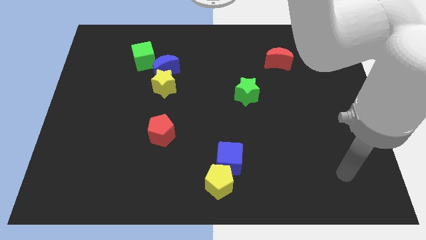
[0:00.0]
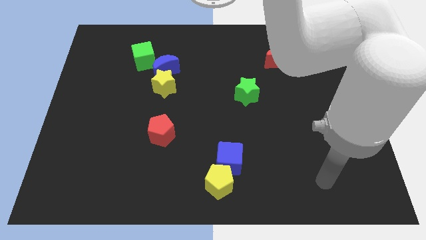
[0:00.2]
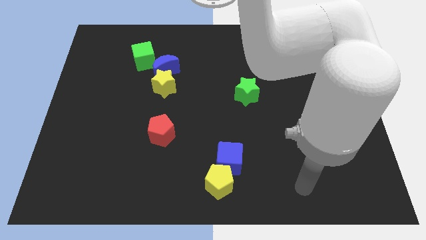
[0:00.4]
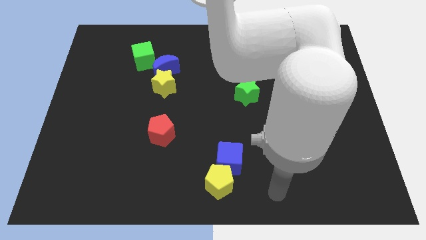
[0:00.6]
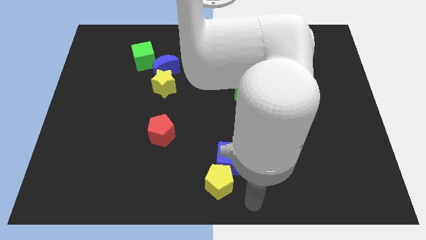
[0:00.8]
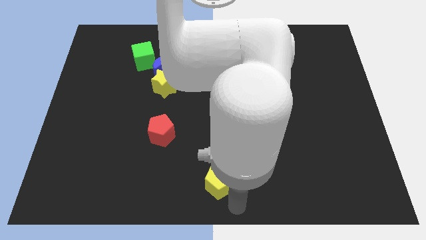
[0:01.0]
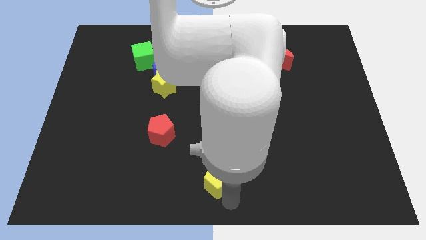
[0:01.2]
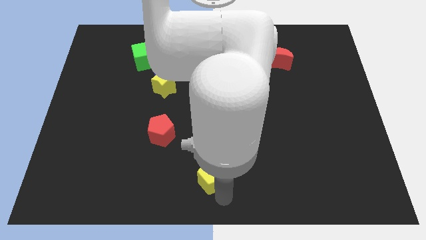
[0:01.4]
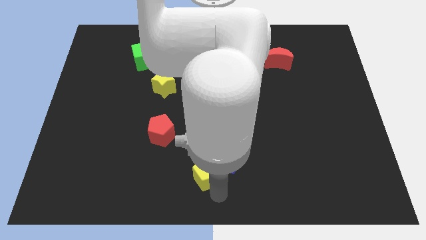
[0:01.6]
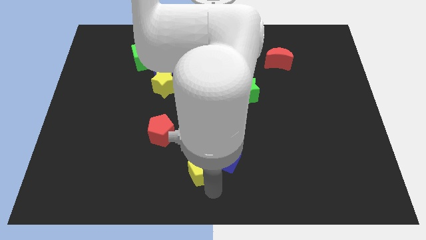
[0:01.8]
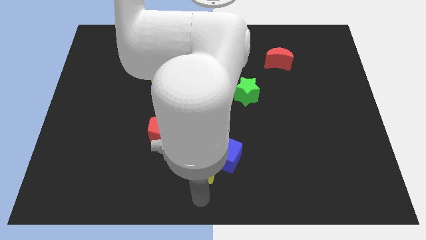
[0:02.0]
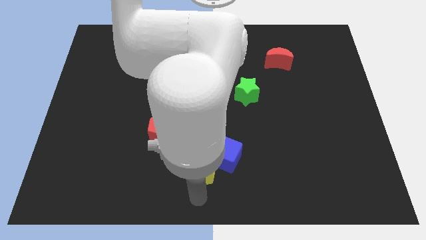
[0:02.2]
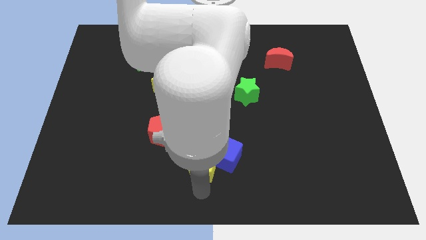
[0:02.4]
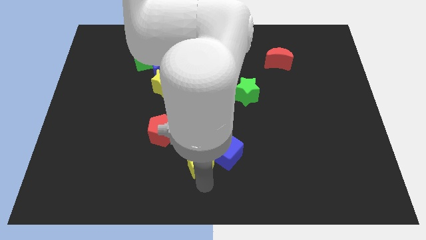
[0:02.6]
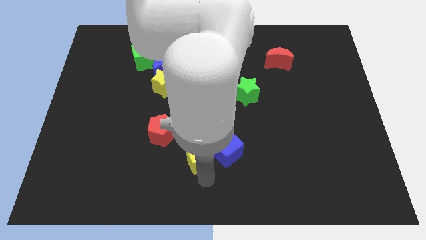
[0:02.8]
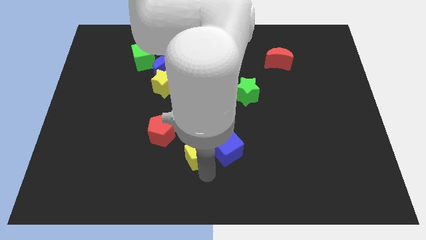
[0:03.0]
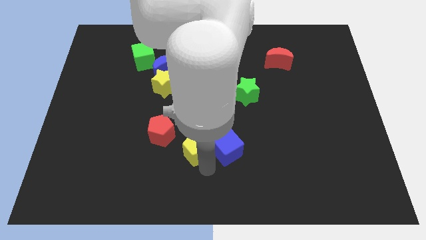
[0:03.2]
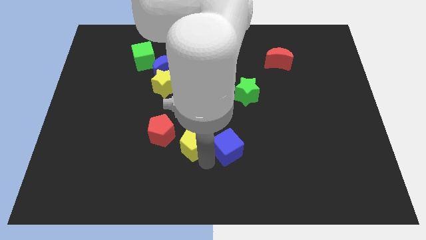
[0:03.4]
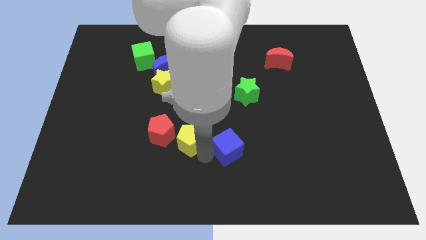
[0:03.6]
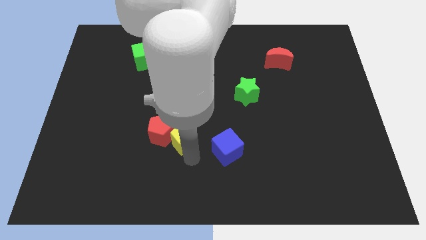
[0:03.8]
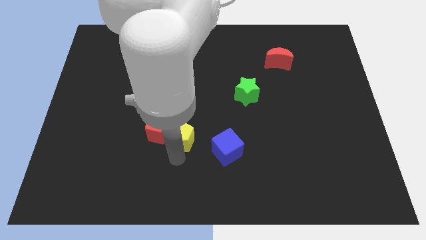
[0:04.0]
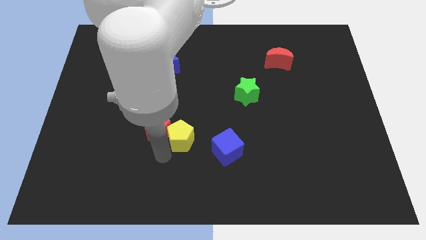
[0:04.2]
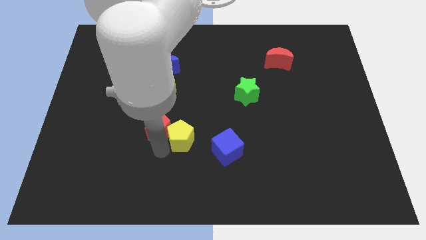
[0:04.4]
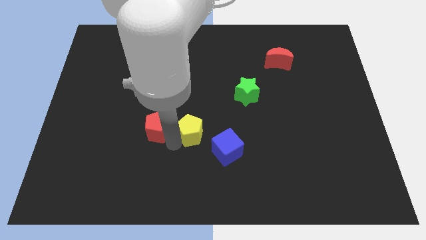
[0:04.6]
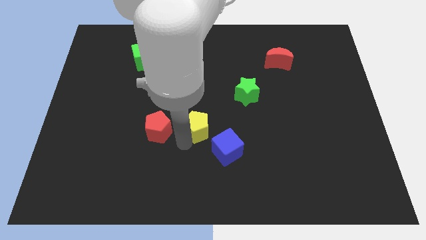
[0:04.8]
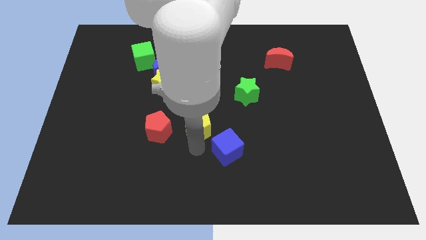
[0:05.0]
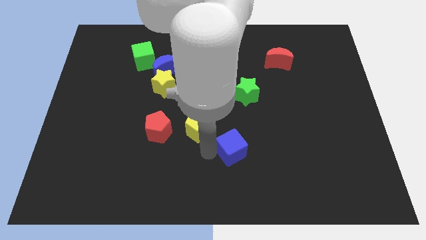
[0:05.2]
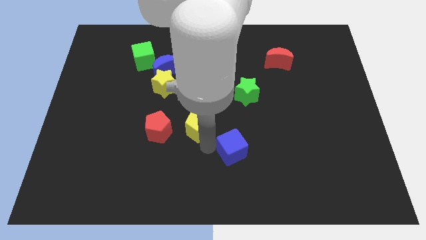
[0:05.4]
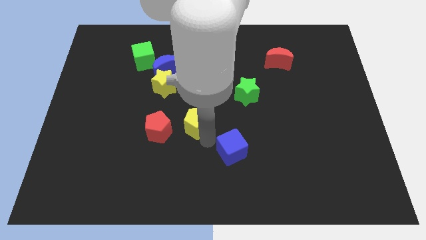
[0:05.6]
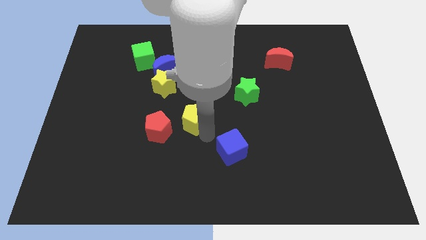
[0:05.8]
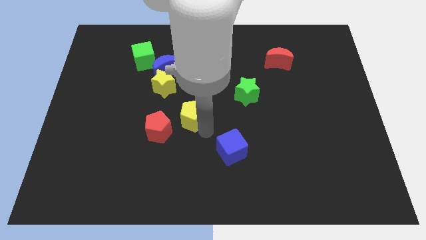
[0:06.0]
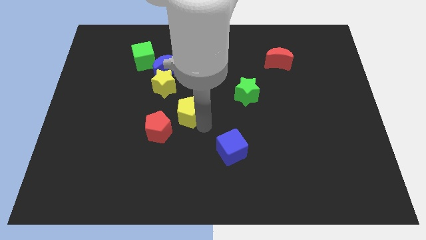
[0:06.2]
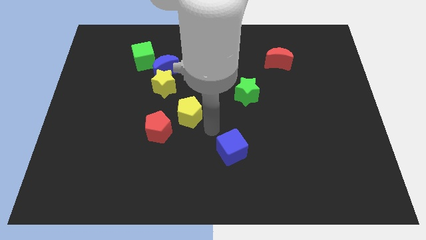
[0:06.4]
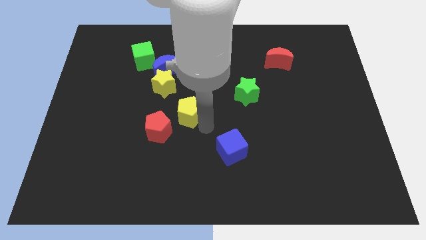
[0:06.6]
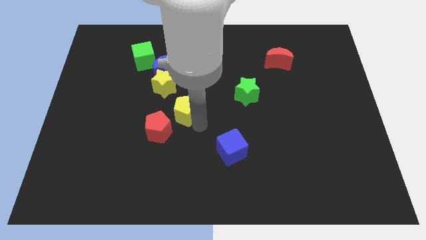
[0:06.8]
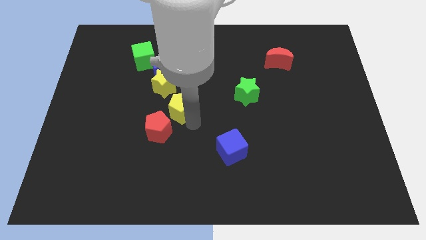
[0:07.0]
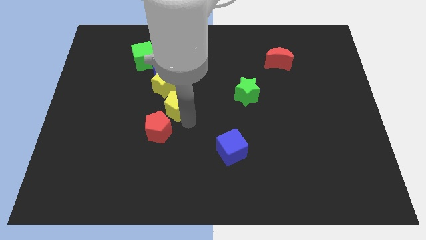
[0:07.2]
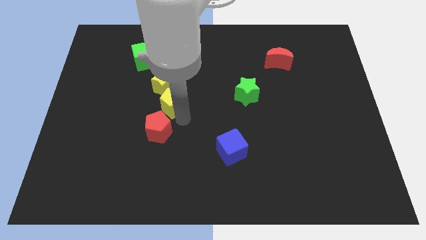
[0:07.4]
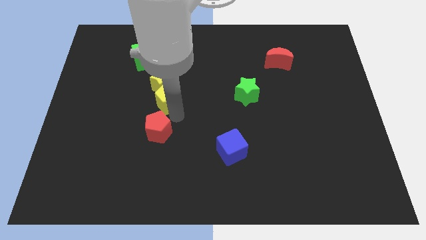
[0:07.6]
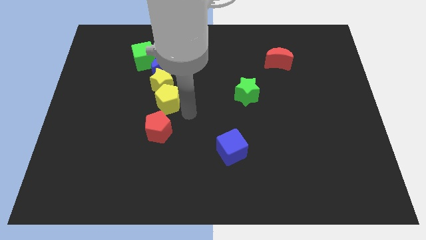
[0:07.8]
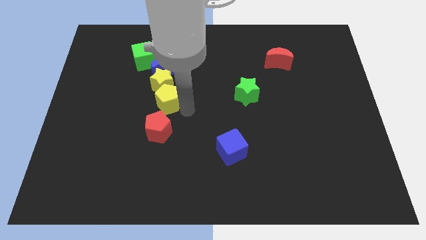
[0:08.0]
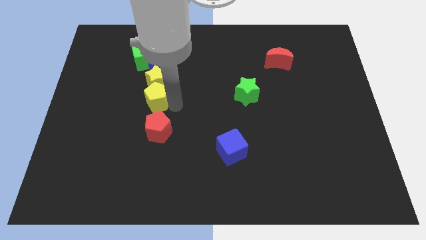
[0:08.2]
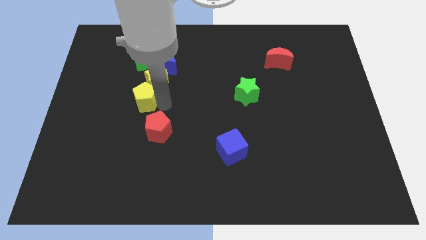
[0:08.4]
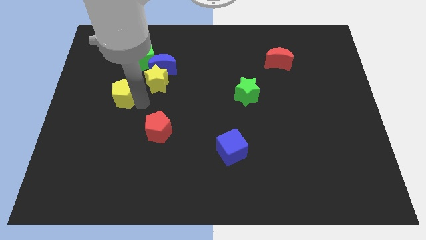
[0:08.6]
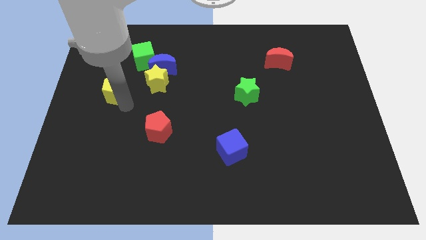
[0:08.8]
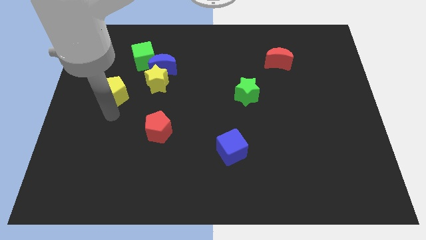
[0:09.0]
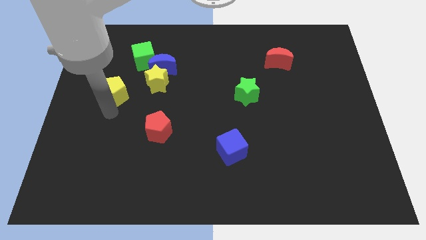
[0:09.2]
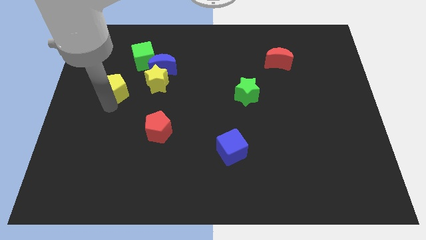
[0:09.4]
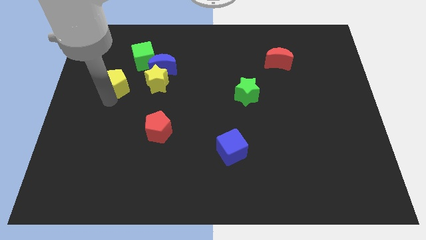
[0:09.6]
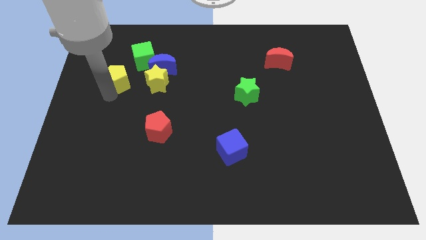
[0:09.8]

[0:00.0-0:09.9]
push the yellow pentagon just left of the blue moon

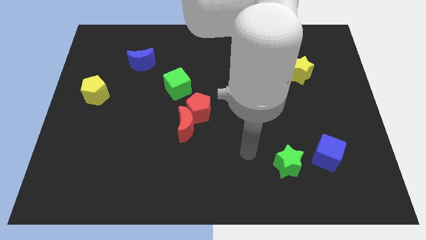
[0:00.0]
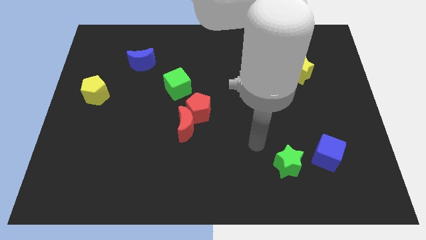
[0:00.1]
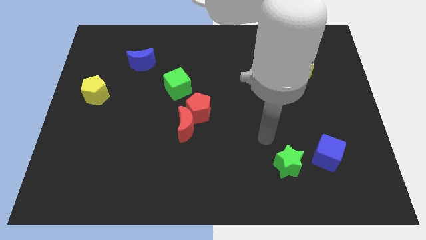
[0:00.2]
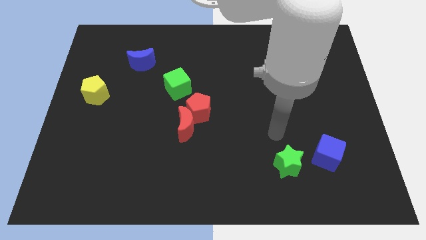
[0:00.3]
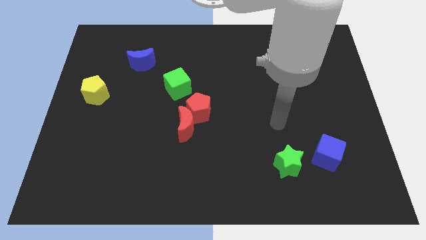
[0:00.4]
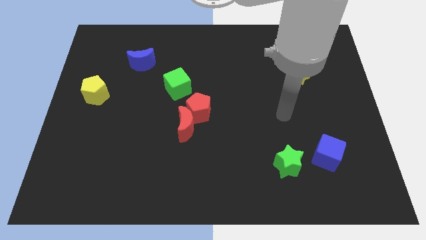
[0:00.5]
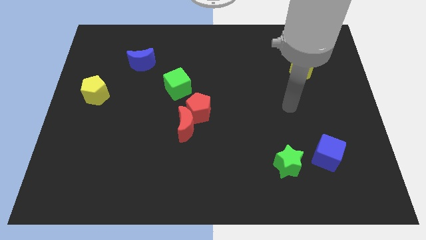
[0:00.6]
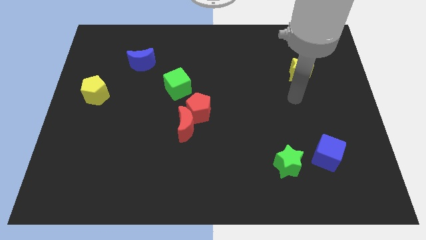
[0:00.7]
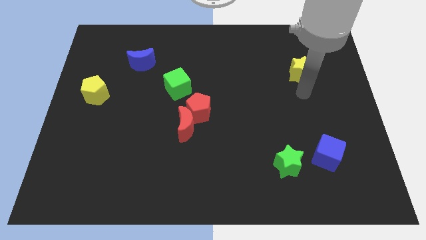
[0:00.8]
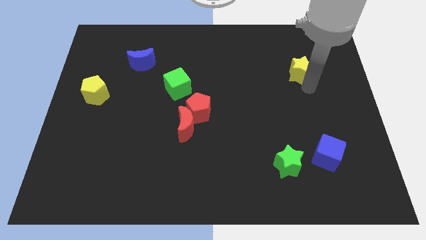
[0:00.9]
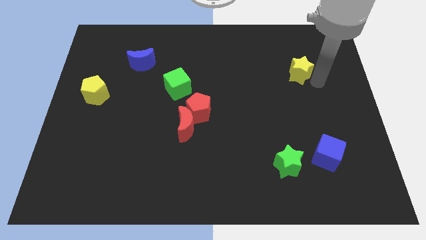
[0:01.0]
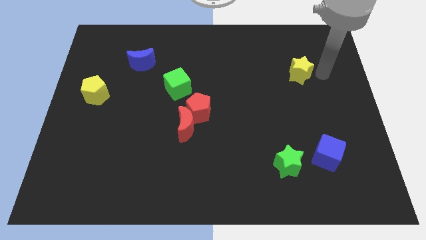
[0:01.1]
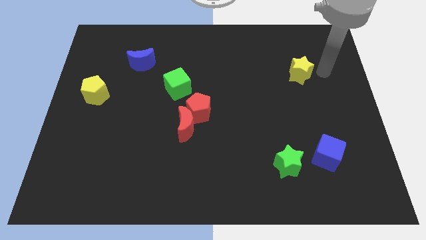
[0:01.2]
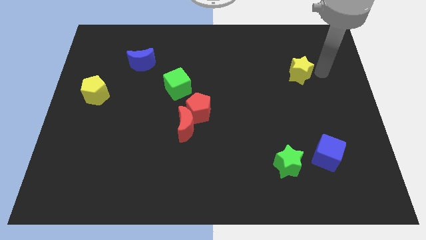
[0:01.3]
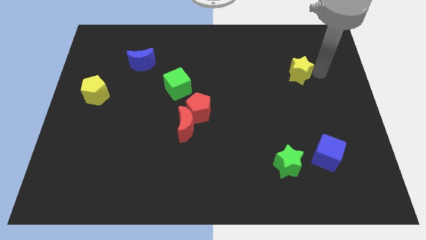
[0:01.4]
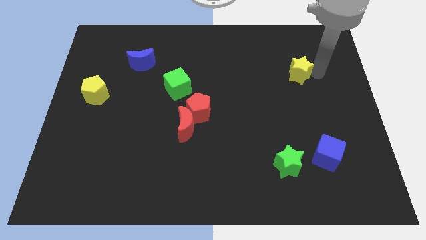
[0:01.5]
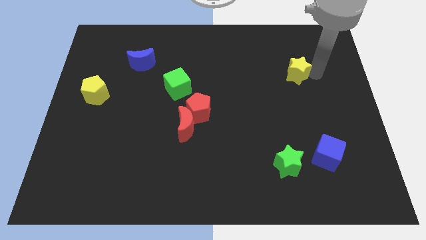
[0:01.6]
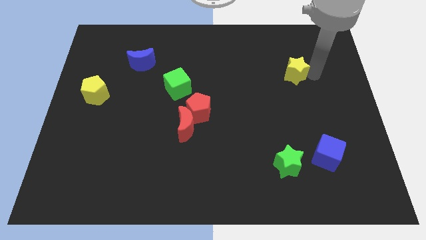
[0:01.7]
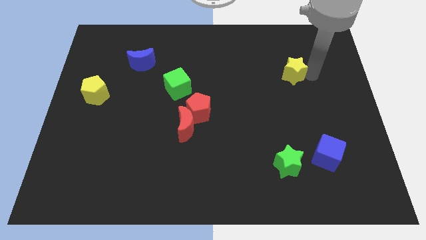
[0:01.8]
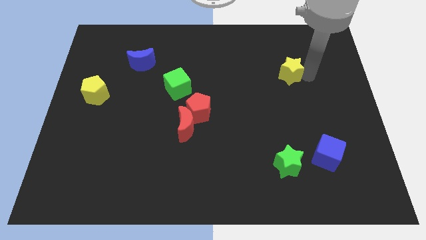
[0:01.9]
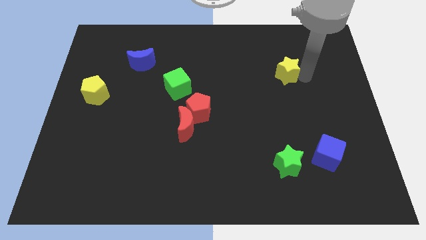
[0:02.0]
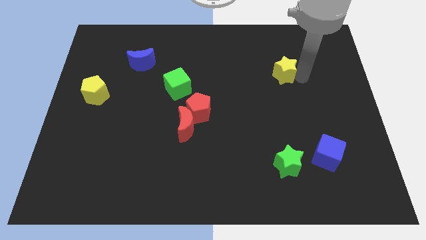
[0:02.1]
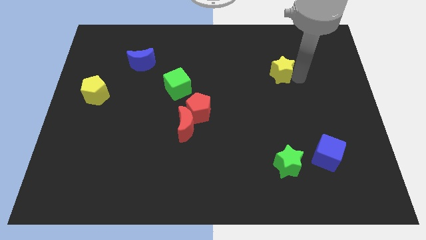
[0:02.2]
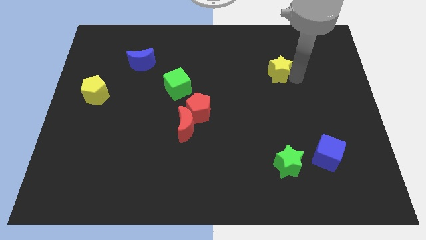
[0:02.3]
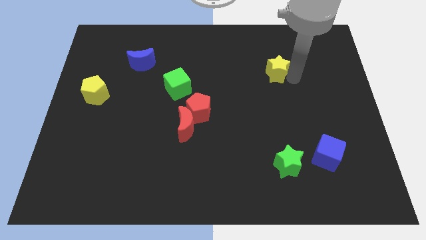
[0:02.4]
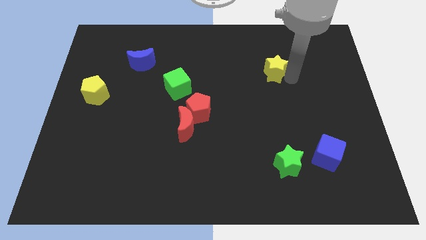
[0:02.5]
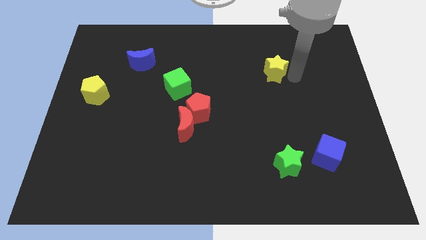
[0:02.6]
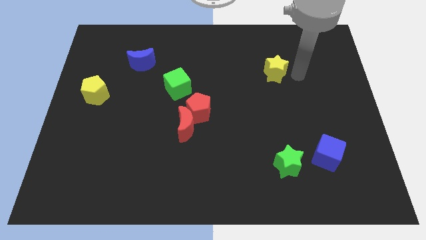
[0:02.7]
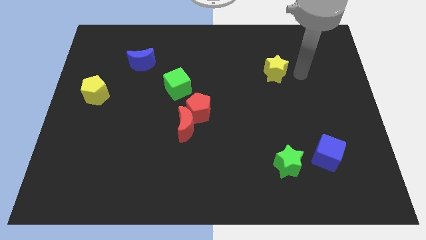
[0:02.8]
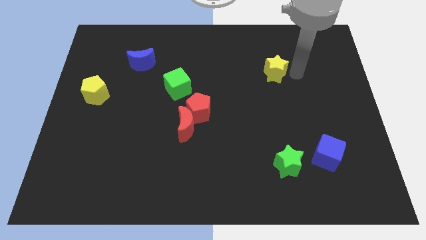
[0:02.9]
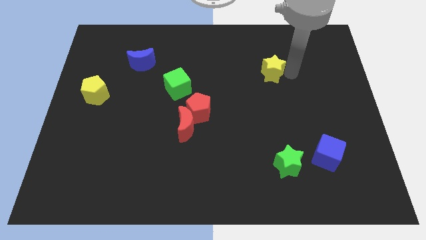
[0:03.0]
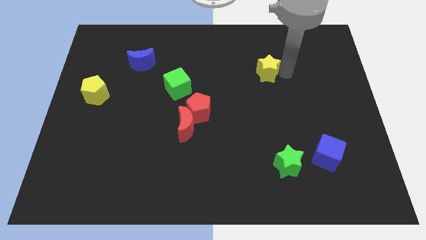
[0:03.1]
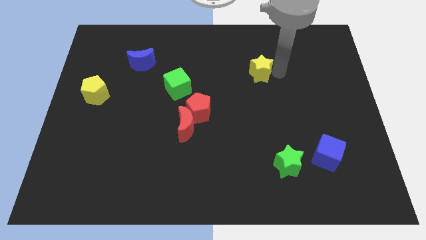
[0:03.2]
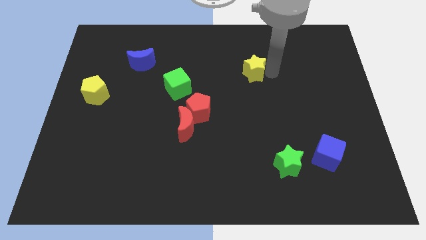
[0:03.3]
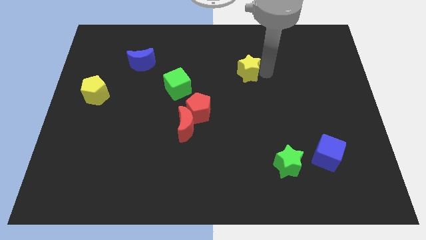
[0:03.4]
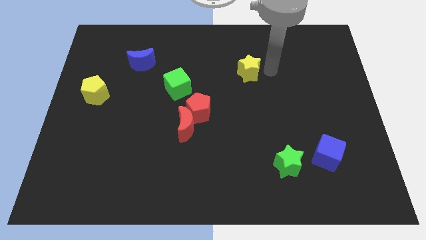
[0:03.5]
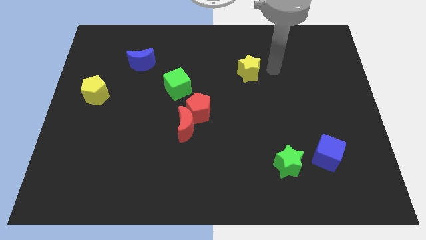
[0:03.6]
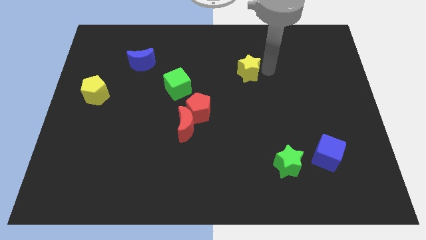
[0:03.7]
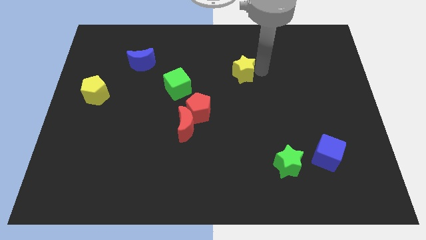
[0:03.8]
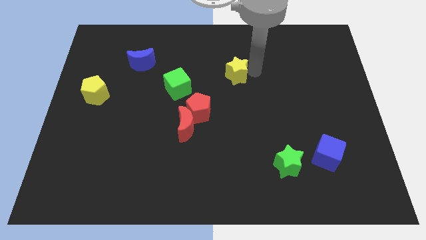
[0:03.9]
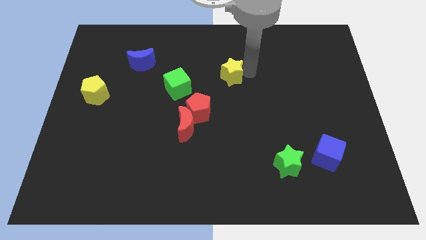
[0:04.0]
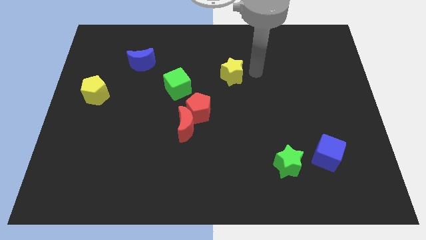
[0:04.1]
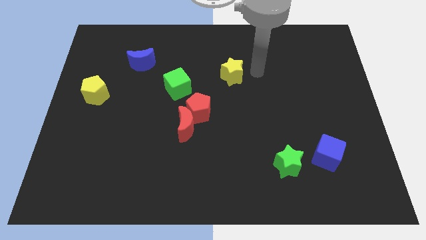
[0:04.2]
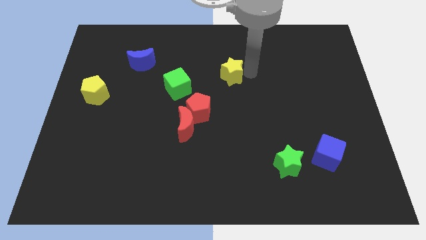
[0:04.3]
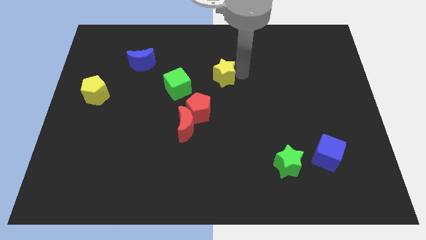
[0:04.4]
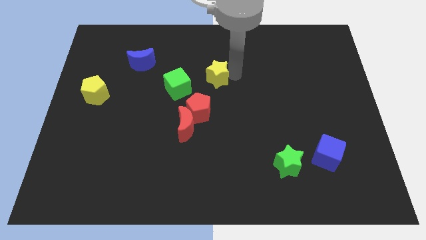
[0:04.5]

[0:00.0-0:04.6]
push the yellow star to the top of the red pentagon
